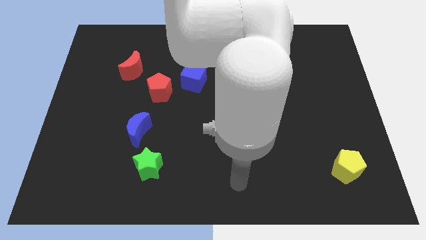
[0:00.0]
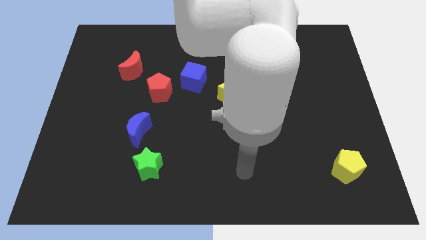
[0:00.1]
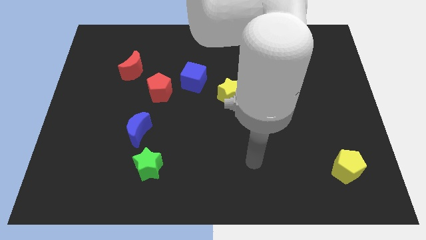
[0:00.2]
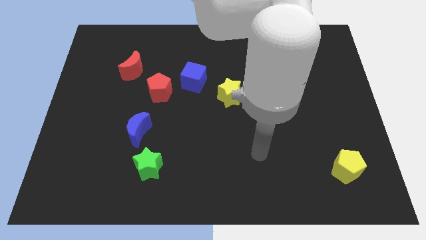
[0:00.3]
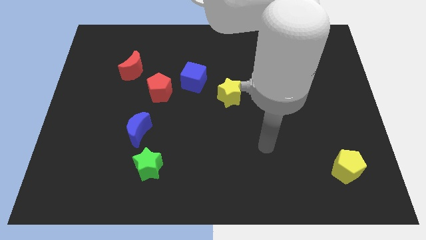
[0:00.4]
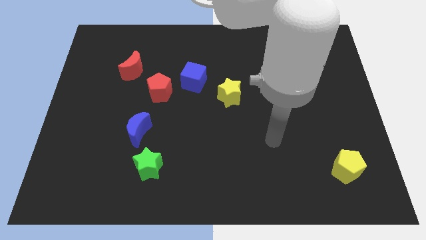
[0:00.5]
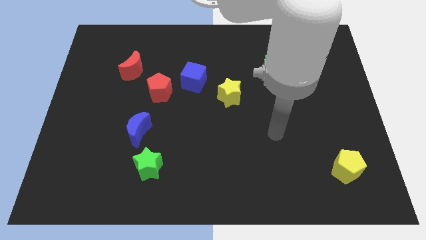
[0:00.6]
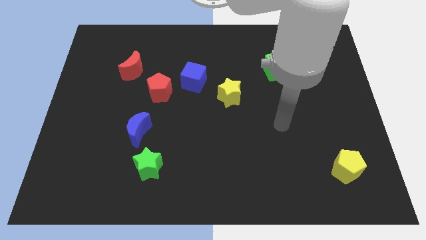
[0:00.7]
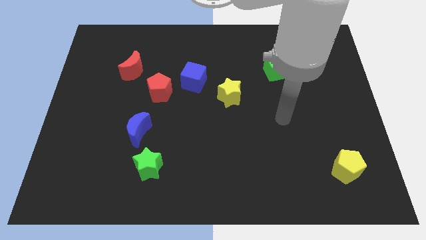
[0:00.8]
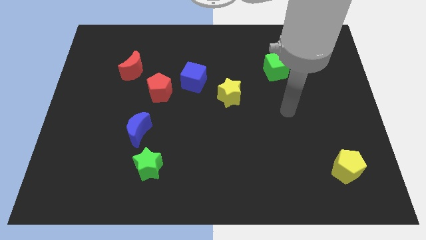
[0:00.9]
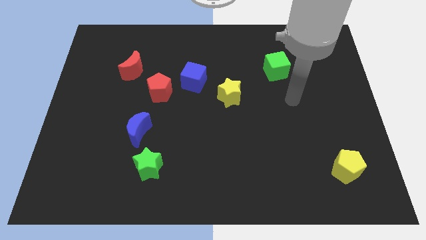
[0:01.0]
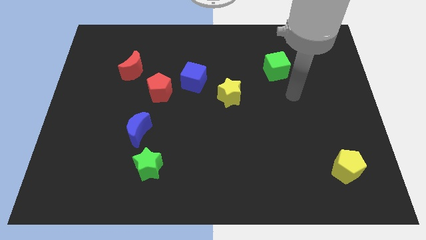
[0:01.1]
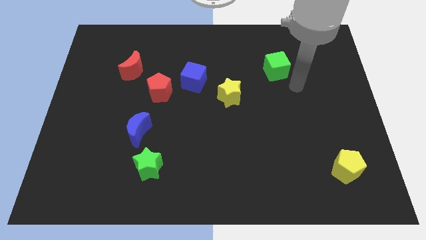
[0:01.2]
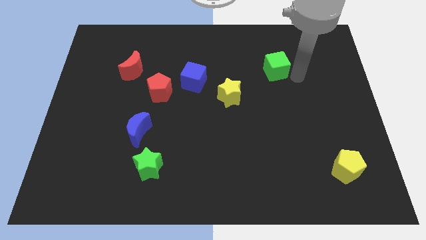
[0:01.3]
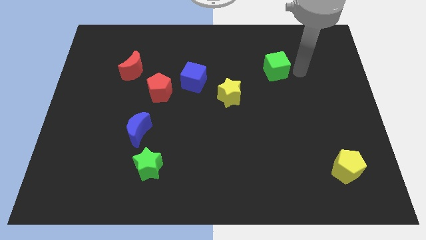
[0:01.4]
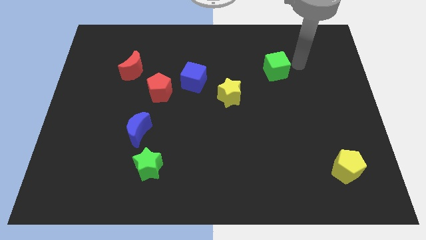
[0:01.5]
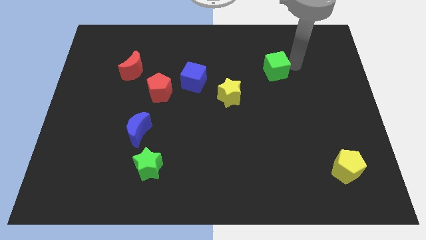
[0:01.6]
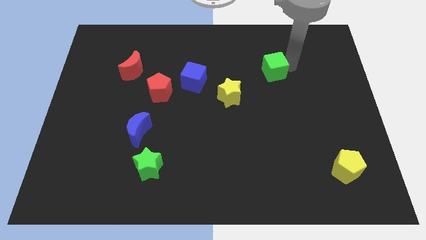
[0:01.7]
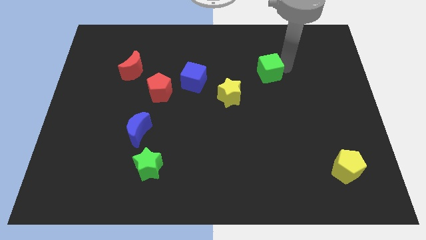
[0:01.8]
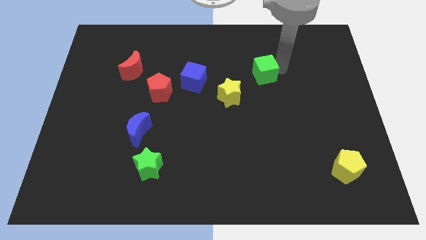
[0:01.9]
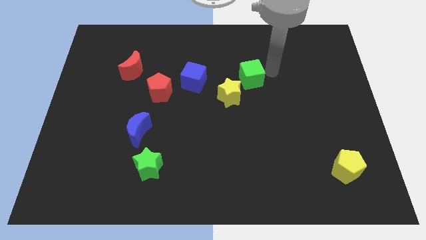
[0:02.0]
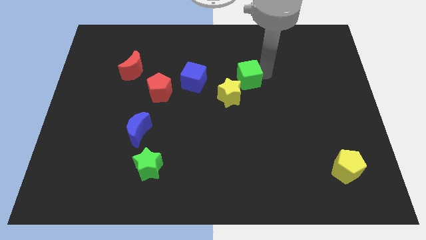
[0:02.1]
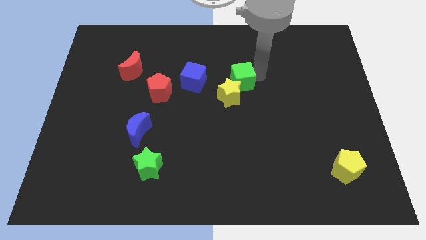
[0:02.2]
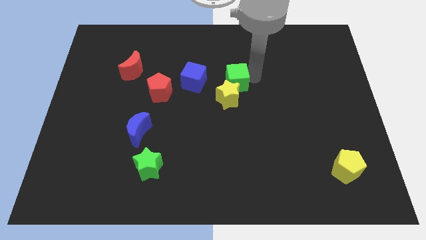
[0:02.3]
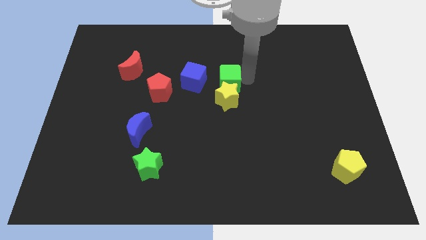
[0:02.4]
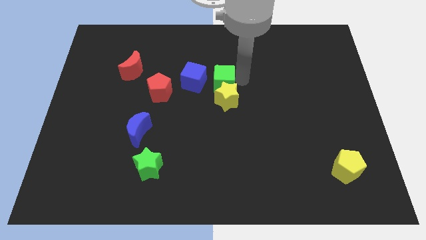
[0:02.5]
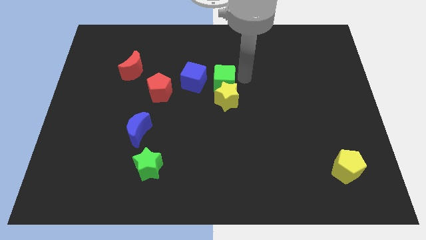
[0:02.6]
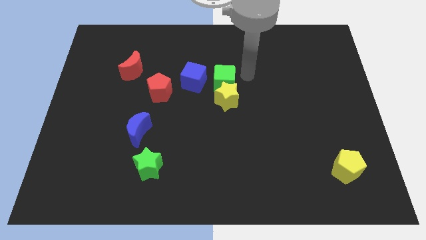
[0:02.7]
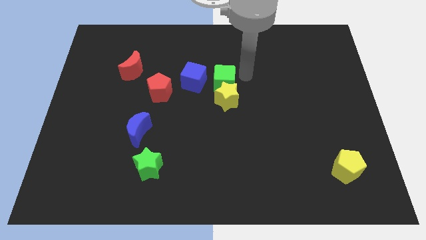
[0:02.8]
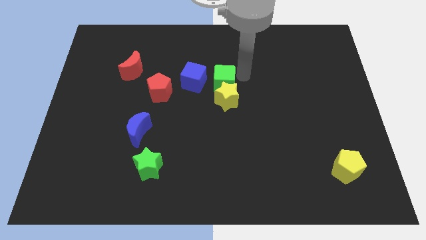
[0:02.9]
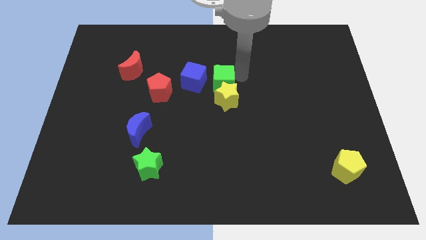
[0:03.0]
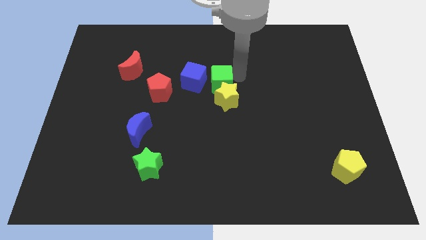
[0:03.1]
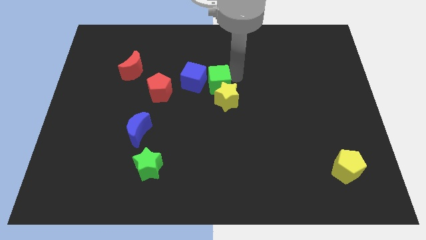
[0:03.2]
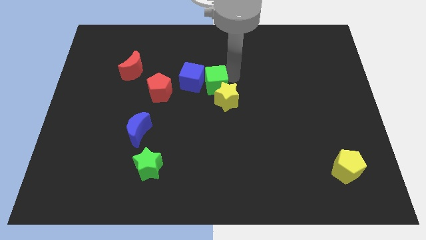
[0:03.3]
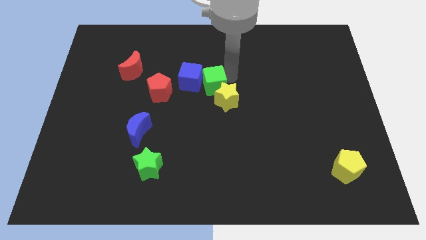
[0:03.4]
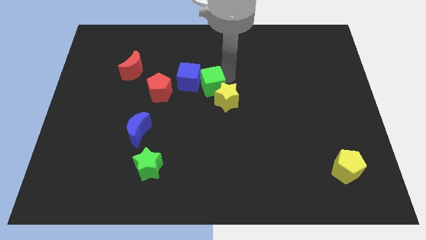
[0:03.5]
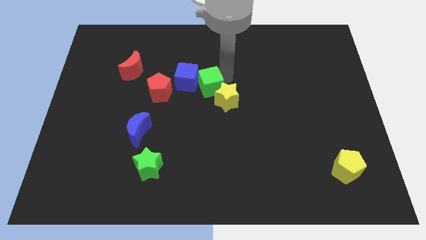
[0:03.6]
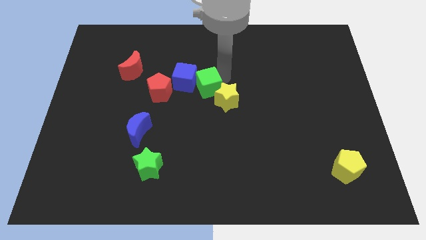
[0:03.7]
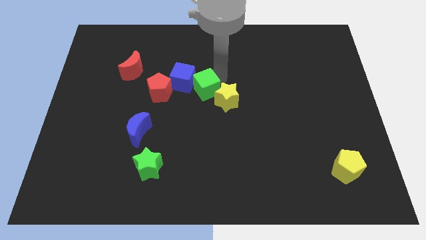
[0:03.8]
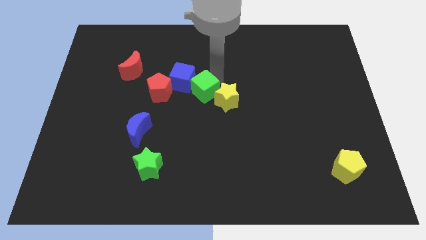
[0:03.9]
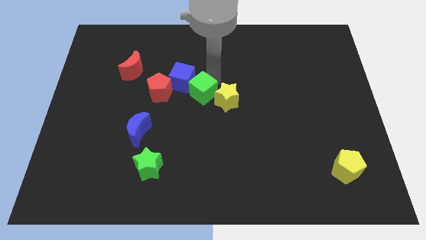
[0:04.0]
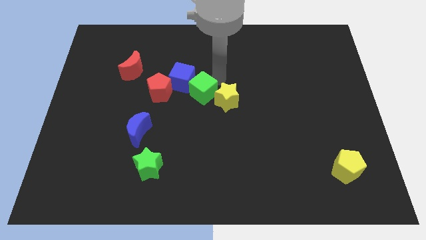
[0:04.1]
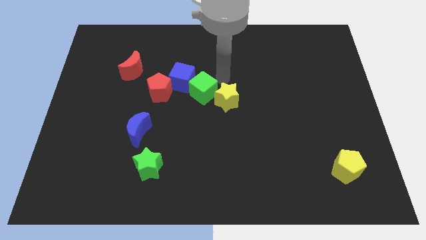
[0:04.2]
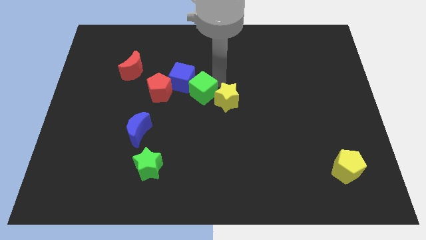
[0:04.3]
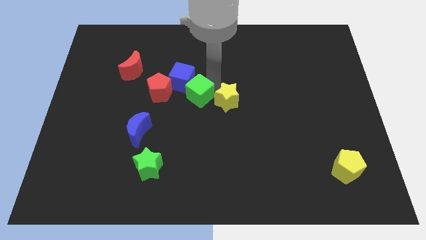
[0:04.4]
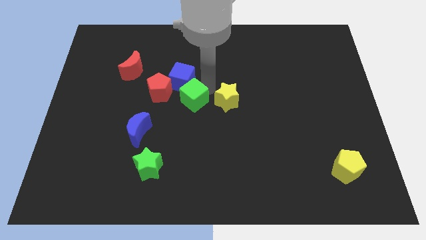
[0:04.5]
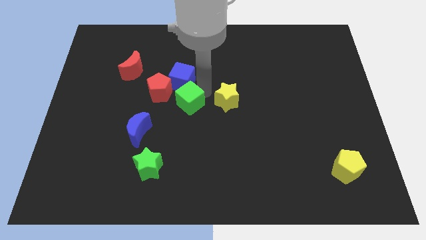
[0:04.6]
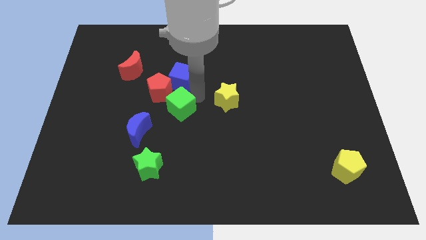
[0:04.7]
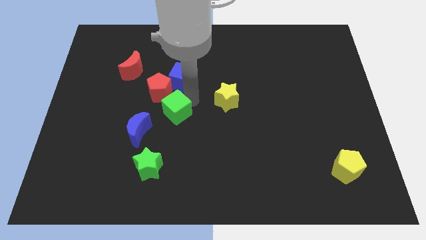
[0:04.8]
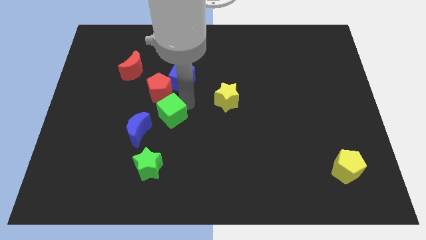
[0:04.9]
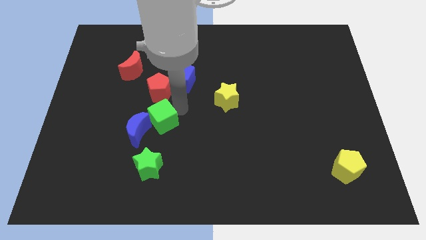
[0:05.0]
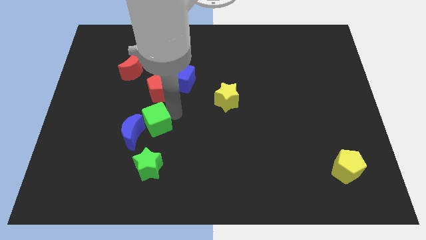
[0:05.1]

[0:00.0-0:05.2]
slide the green cube next to the blue moon

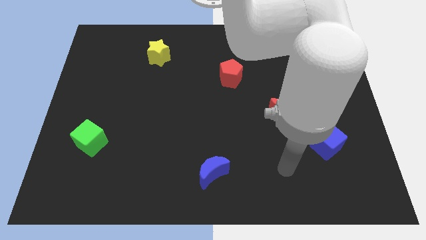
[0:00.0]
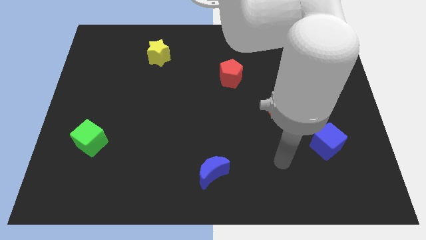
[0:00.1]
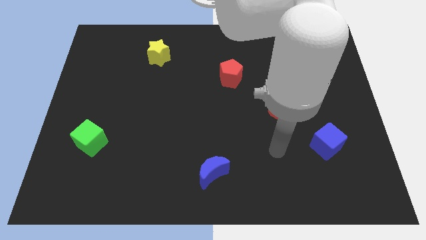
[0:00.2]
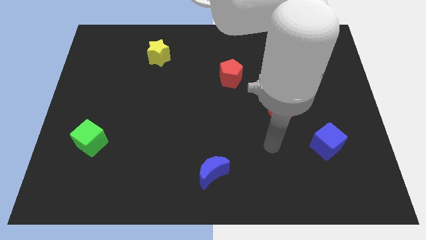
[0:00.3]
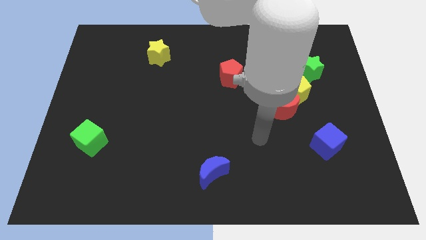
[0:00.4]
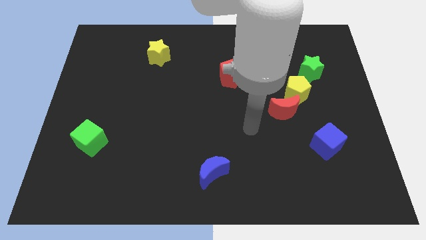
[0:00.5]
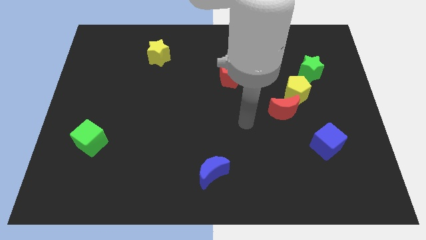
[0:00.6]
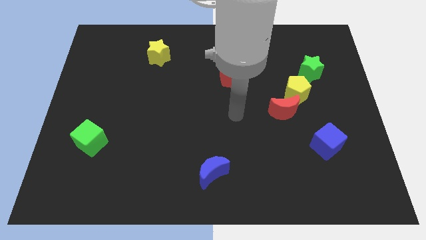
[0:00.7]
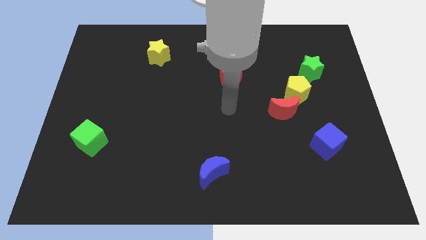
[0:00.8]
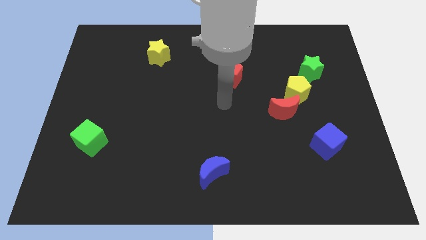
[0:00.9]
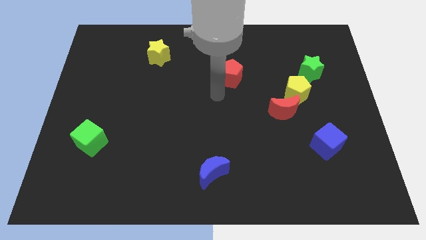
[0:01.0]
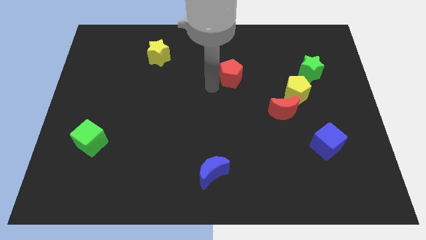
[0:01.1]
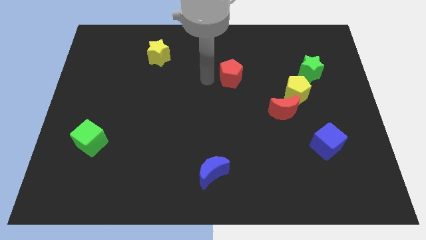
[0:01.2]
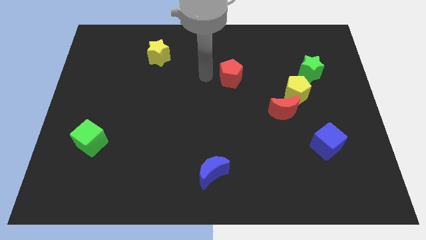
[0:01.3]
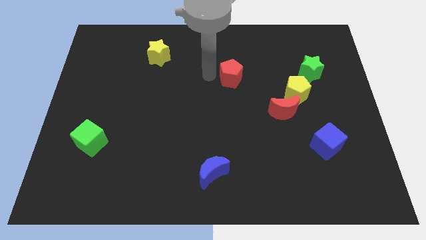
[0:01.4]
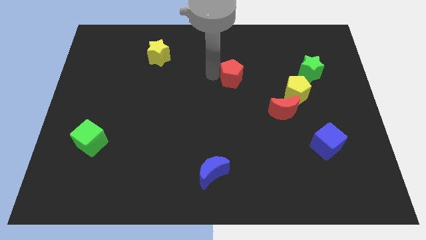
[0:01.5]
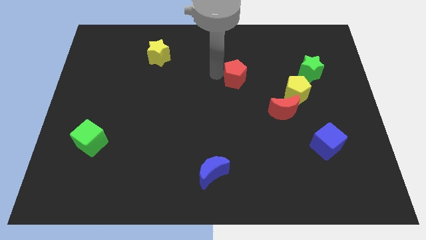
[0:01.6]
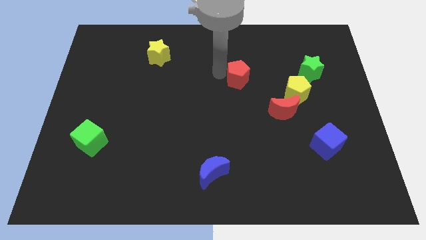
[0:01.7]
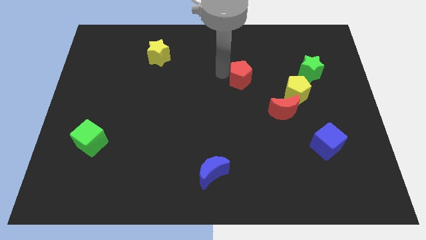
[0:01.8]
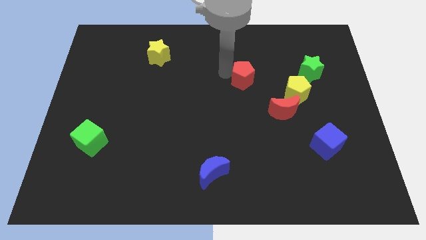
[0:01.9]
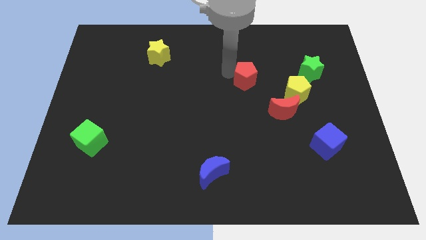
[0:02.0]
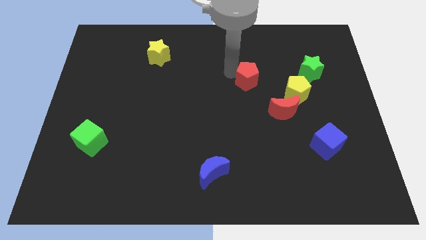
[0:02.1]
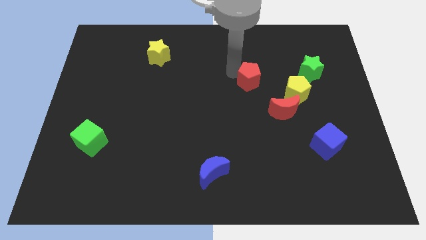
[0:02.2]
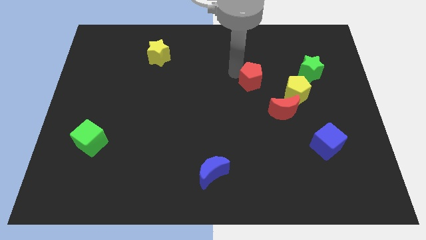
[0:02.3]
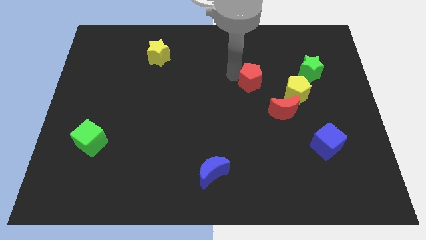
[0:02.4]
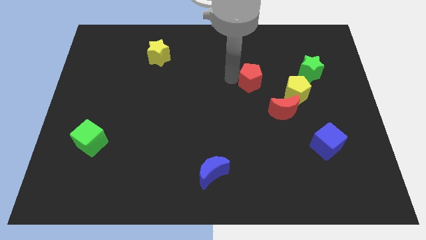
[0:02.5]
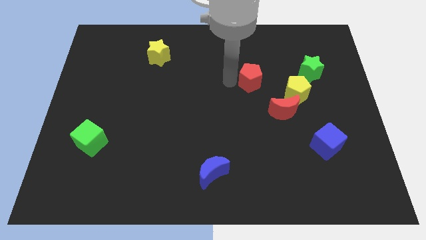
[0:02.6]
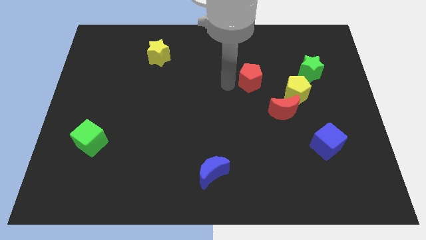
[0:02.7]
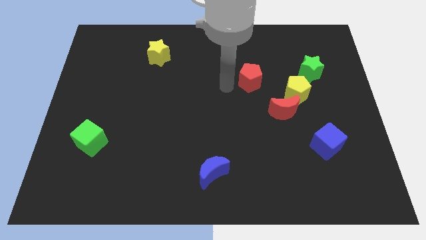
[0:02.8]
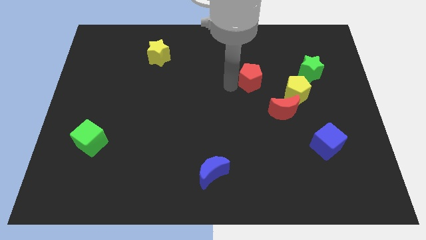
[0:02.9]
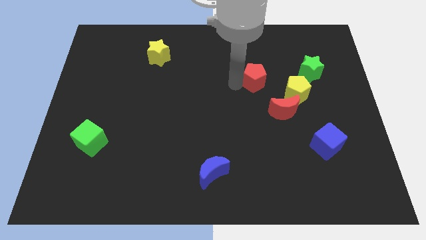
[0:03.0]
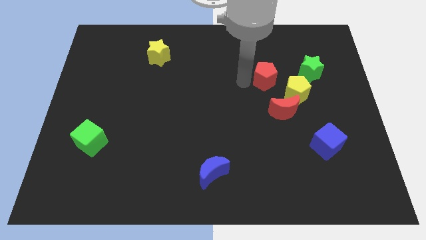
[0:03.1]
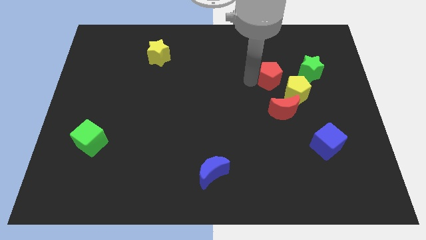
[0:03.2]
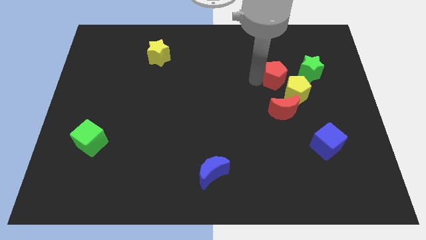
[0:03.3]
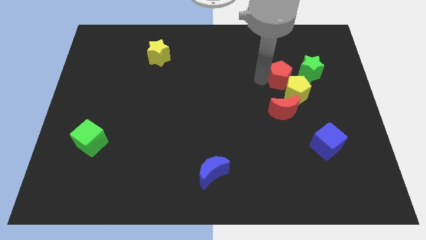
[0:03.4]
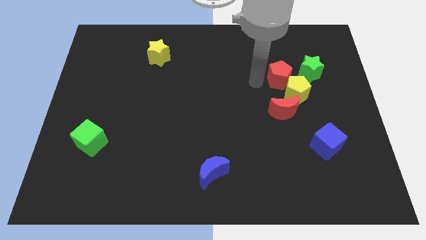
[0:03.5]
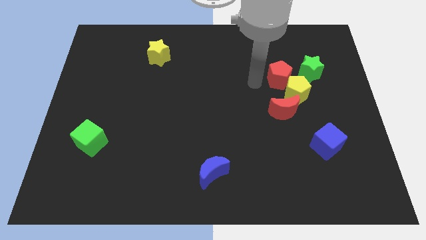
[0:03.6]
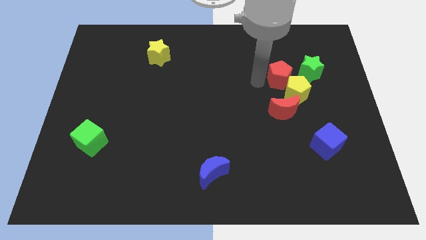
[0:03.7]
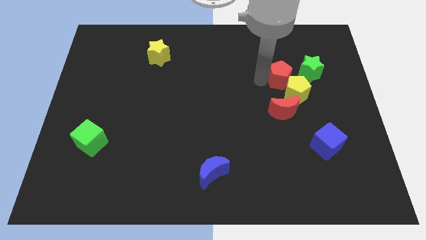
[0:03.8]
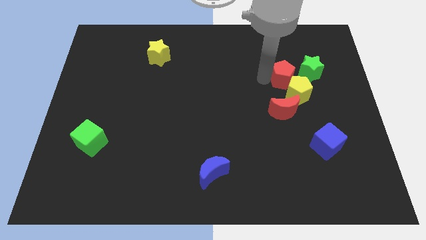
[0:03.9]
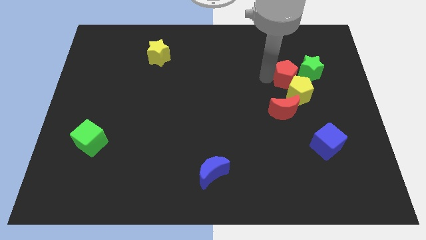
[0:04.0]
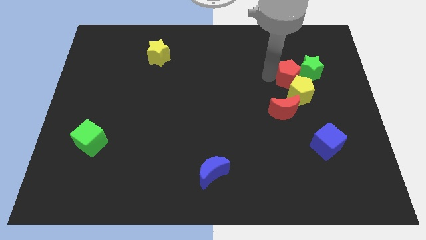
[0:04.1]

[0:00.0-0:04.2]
put the red pentagon to the green star
